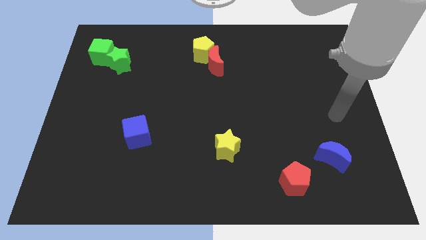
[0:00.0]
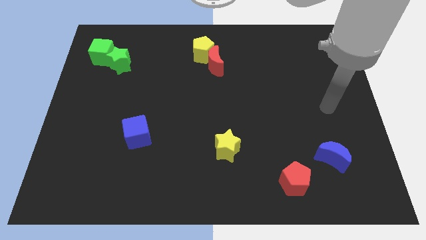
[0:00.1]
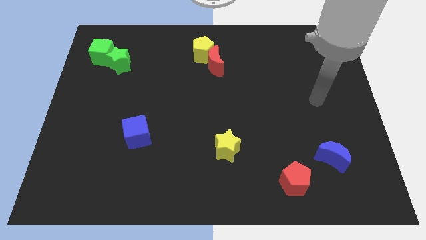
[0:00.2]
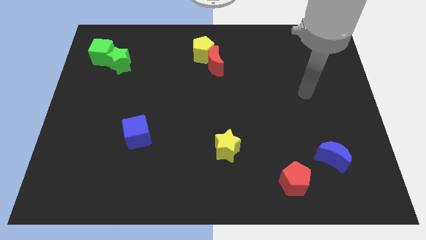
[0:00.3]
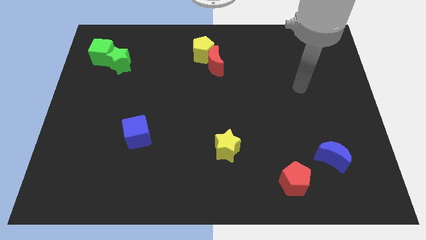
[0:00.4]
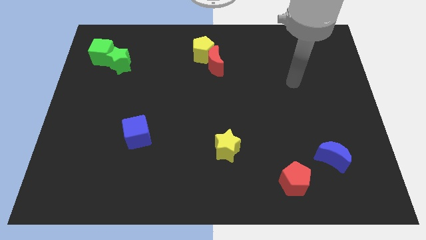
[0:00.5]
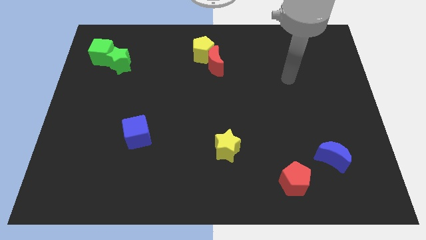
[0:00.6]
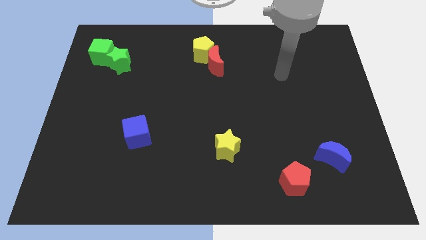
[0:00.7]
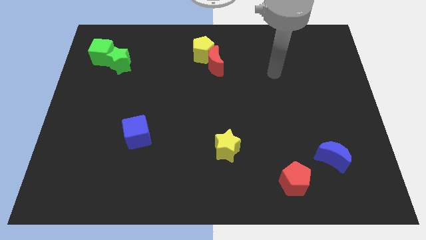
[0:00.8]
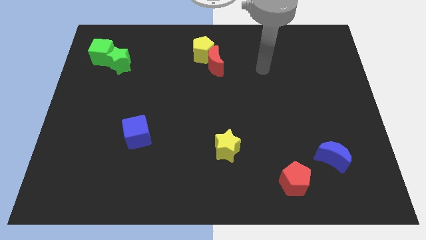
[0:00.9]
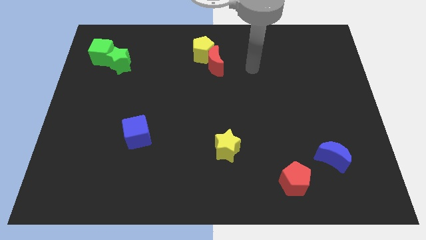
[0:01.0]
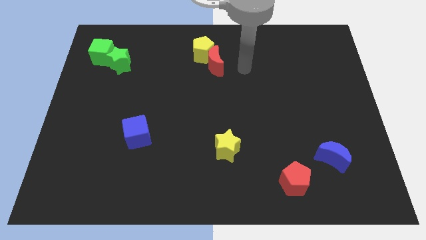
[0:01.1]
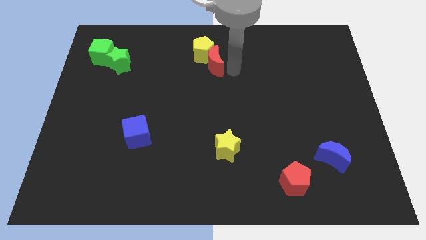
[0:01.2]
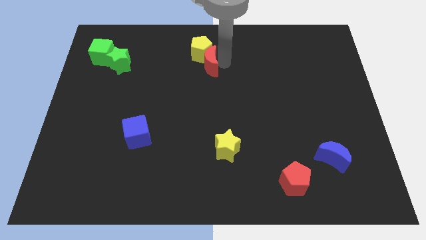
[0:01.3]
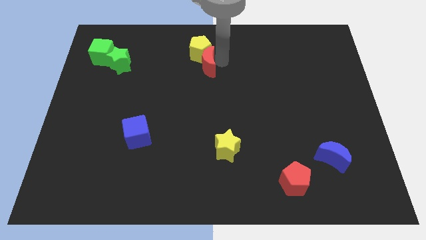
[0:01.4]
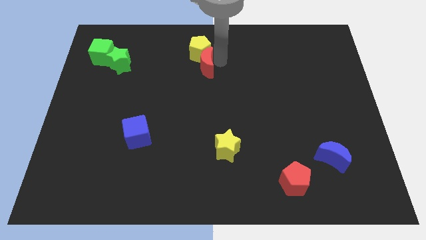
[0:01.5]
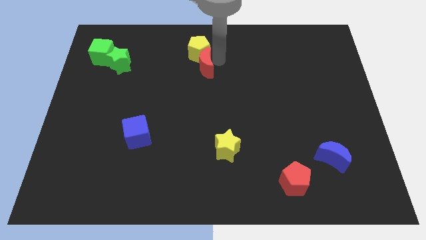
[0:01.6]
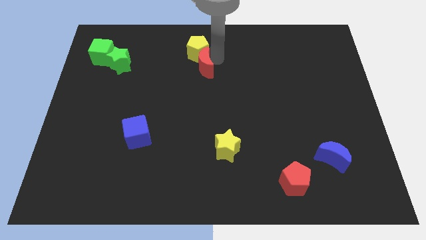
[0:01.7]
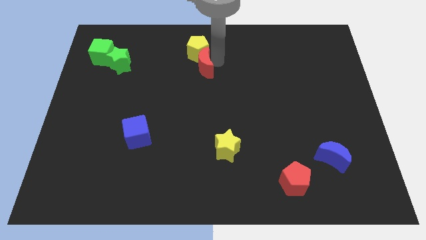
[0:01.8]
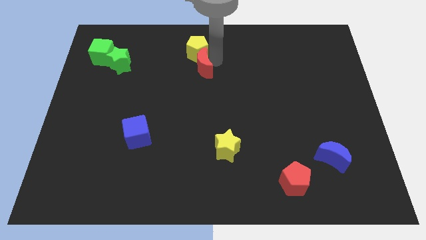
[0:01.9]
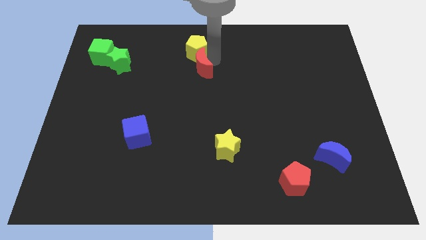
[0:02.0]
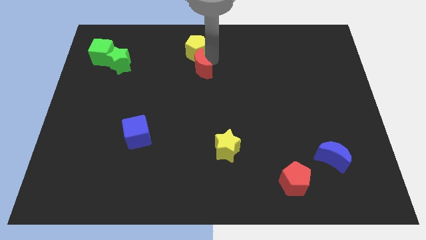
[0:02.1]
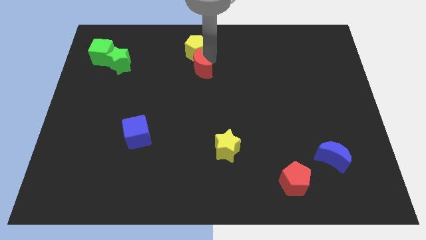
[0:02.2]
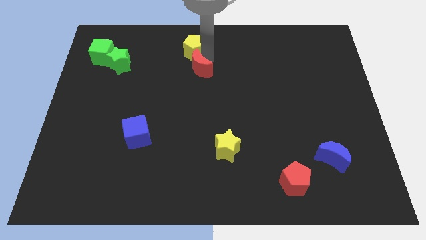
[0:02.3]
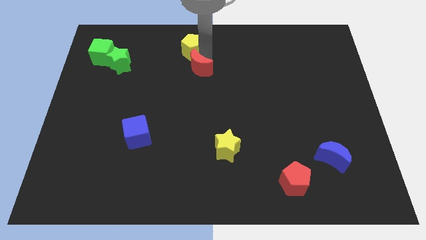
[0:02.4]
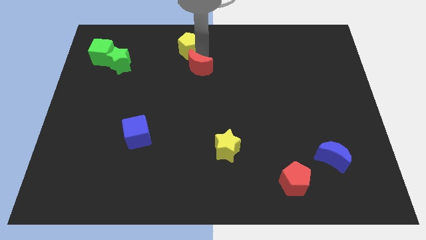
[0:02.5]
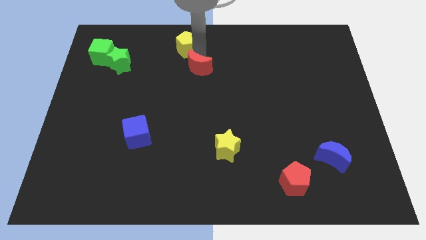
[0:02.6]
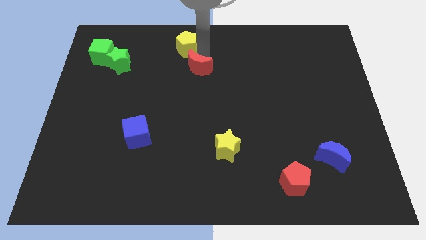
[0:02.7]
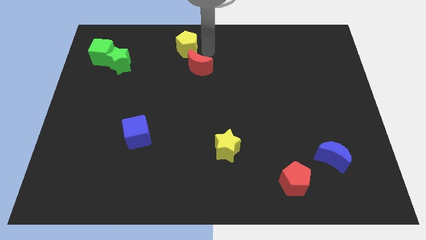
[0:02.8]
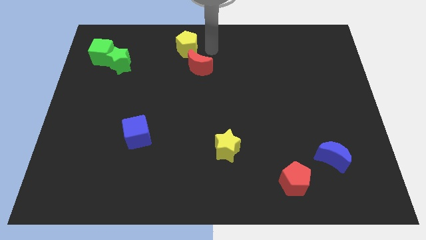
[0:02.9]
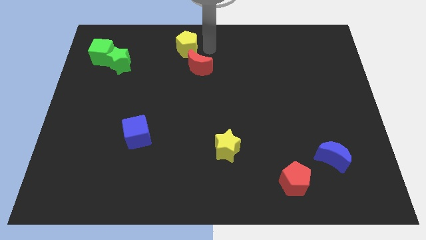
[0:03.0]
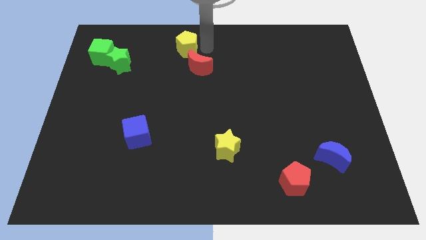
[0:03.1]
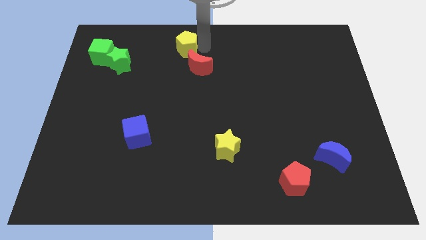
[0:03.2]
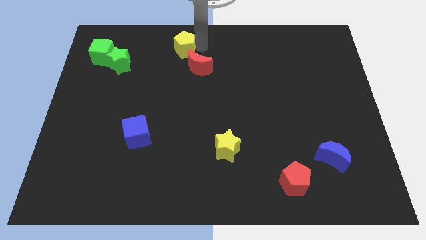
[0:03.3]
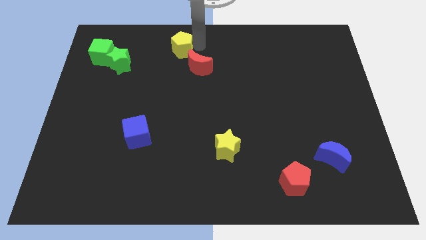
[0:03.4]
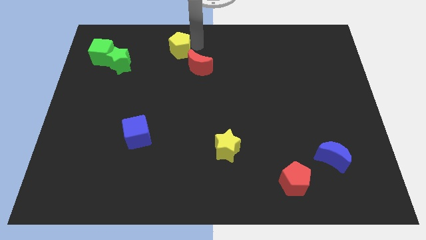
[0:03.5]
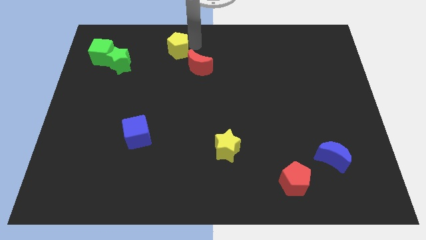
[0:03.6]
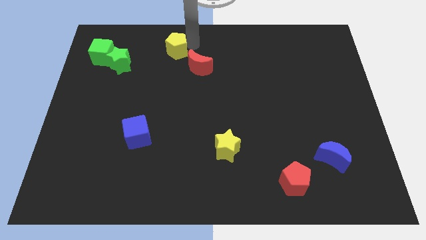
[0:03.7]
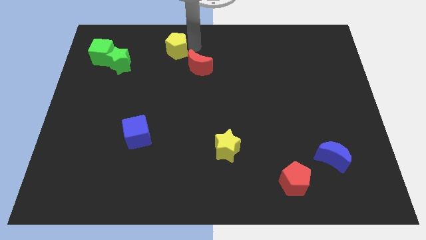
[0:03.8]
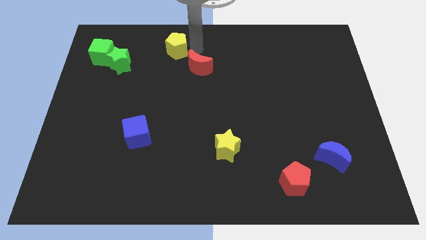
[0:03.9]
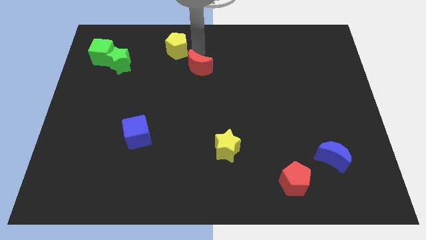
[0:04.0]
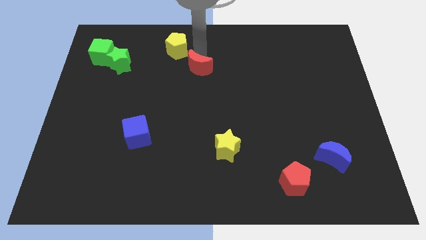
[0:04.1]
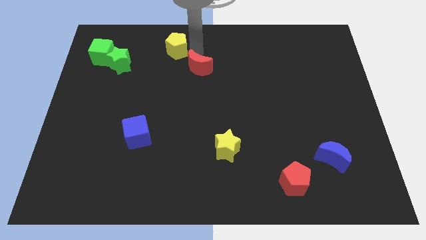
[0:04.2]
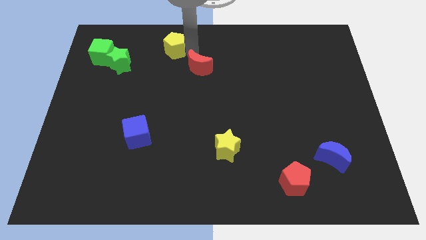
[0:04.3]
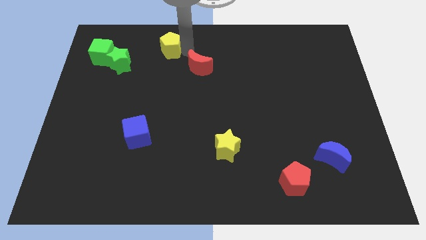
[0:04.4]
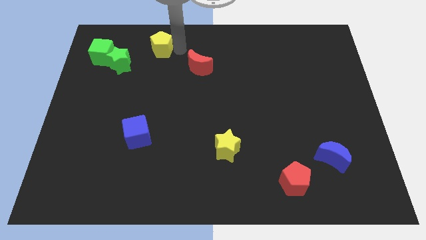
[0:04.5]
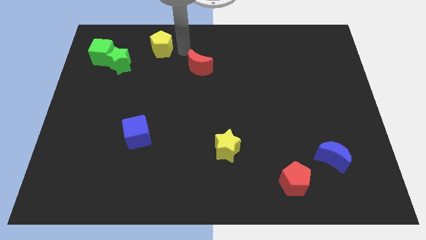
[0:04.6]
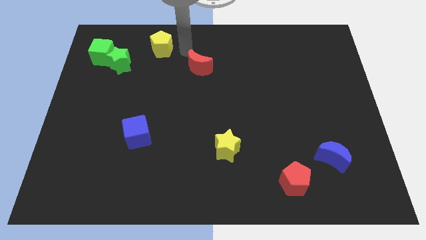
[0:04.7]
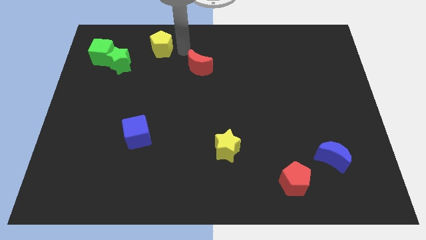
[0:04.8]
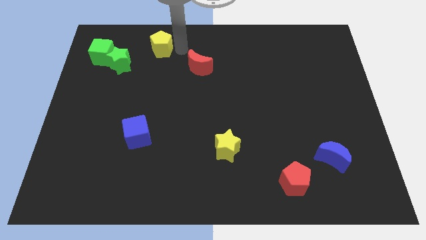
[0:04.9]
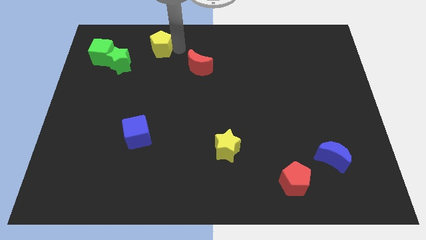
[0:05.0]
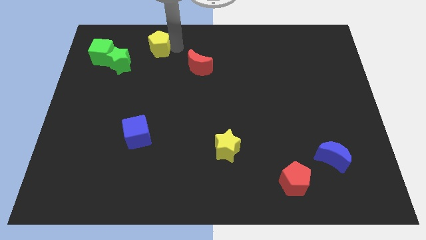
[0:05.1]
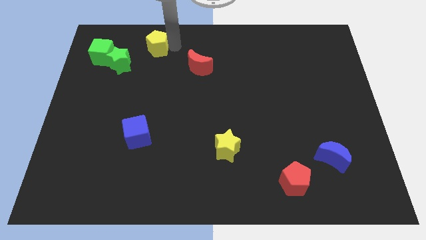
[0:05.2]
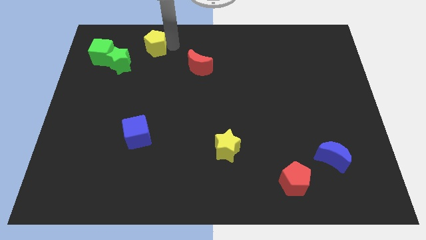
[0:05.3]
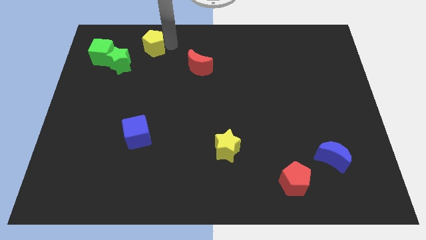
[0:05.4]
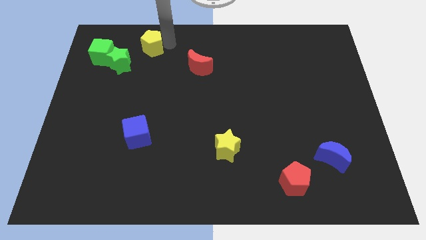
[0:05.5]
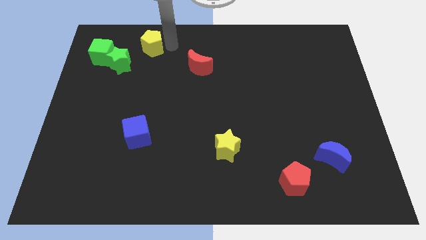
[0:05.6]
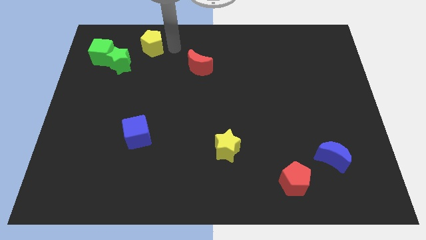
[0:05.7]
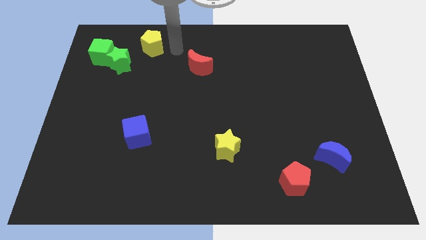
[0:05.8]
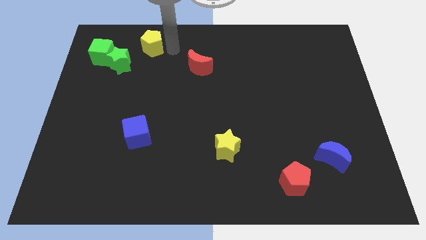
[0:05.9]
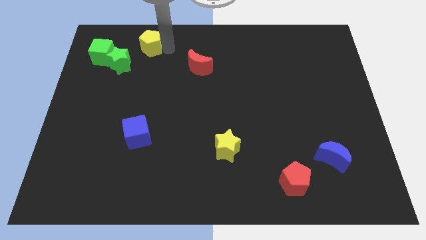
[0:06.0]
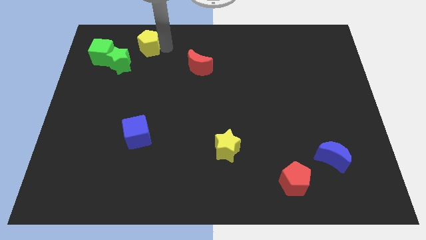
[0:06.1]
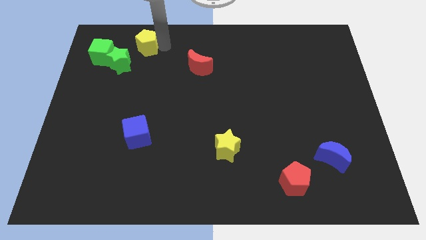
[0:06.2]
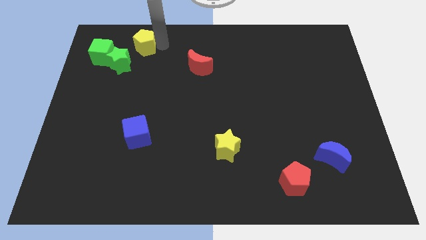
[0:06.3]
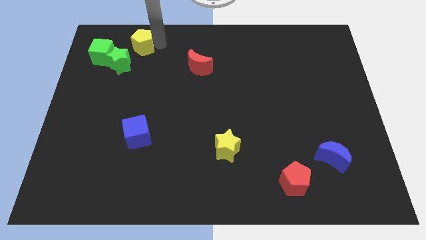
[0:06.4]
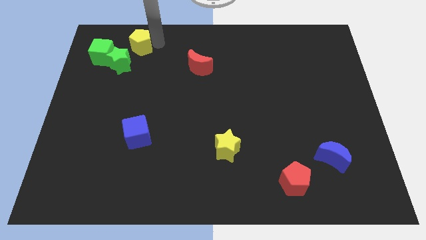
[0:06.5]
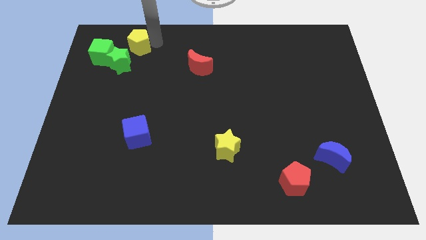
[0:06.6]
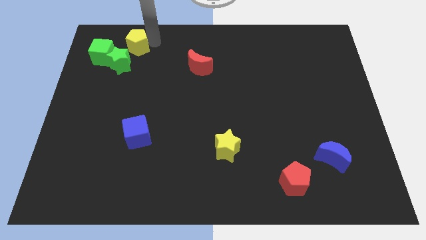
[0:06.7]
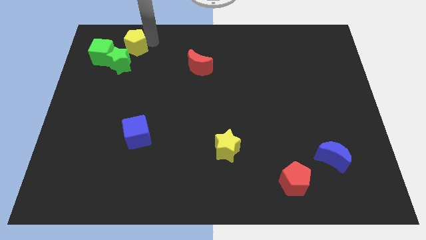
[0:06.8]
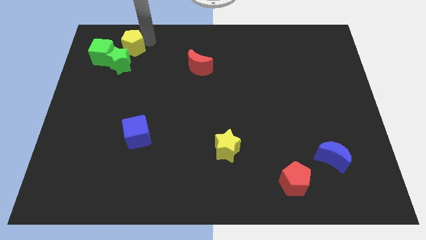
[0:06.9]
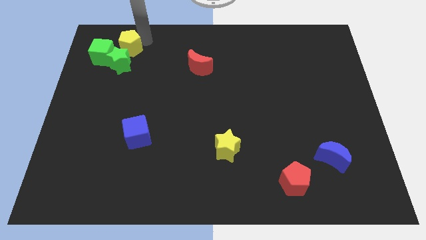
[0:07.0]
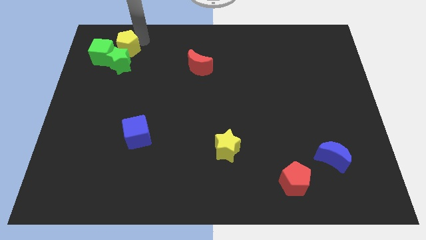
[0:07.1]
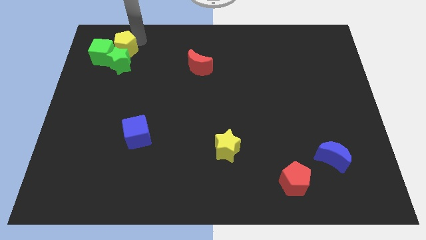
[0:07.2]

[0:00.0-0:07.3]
move the yellow pentagon to the green cube
